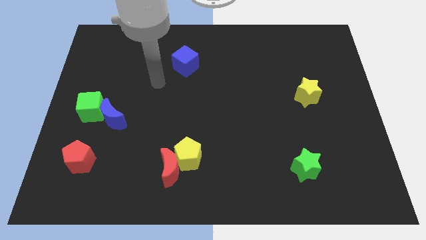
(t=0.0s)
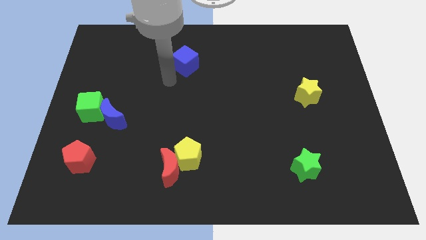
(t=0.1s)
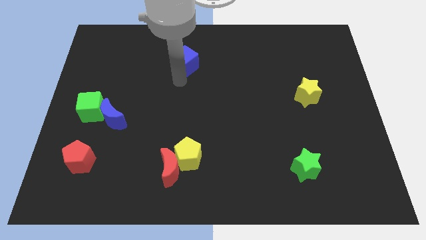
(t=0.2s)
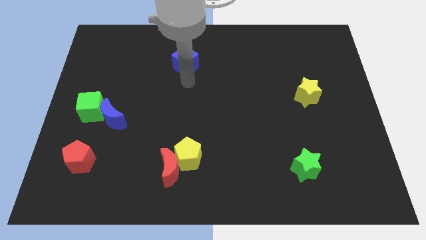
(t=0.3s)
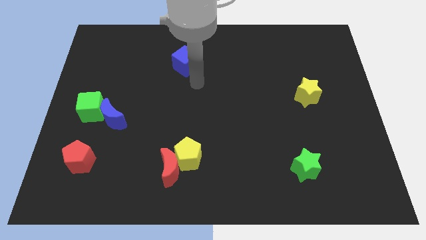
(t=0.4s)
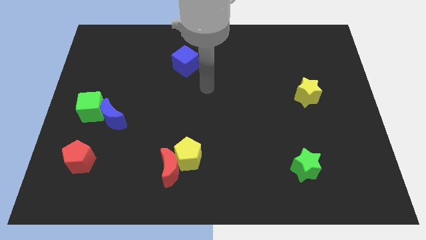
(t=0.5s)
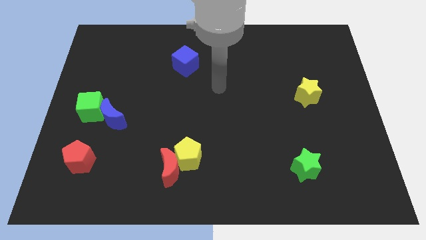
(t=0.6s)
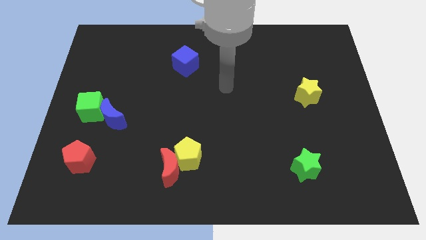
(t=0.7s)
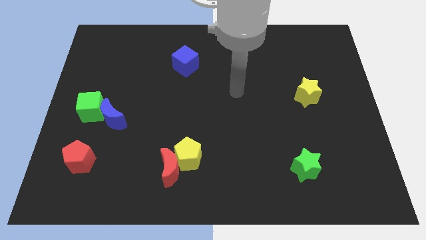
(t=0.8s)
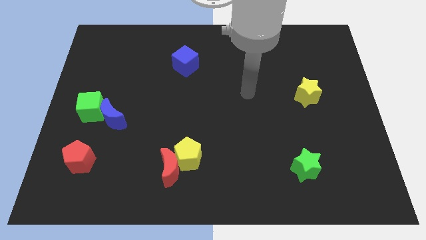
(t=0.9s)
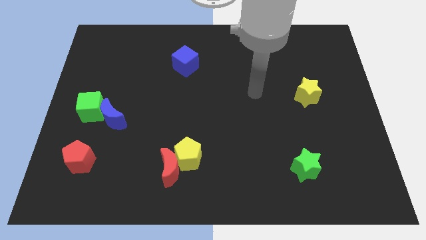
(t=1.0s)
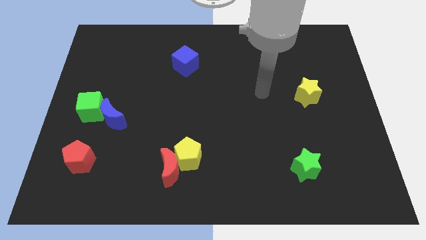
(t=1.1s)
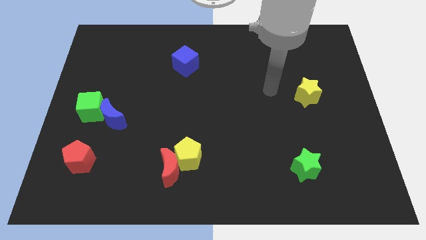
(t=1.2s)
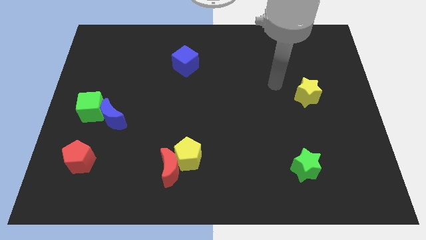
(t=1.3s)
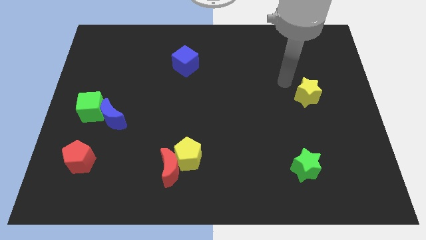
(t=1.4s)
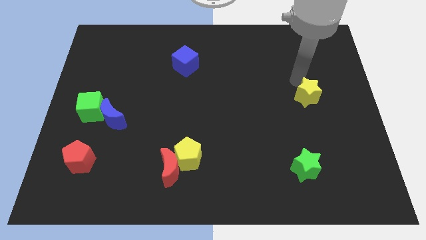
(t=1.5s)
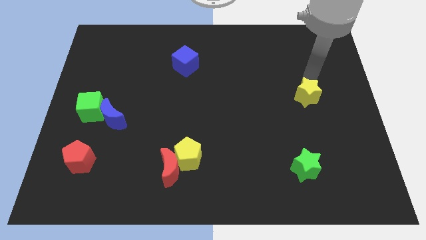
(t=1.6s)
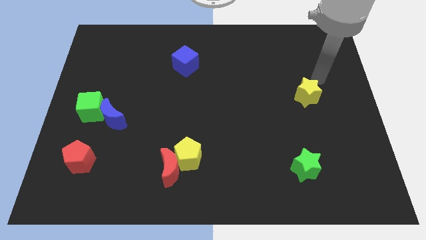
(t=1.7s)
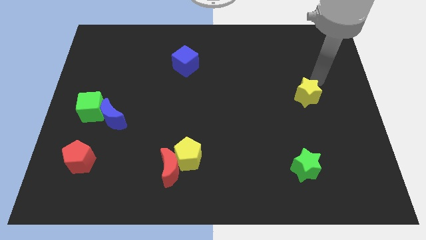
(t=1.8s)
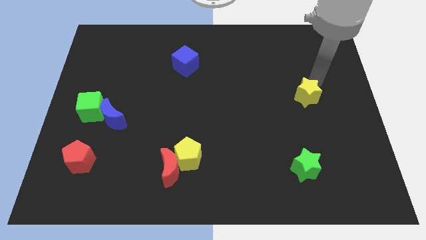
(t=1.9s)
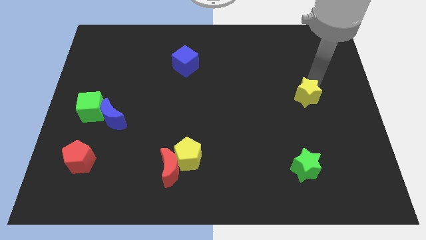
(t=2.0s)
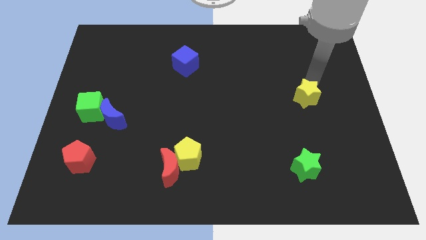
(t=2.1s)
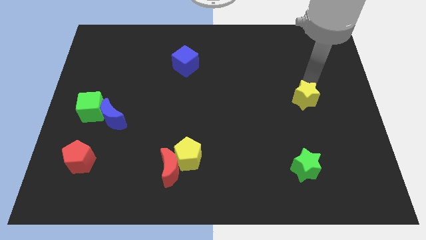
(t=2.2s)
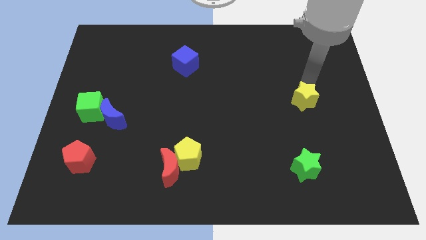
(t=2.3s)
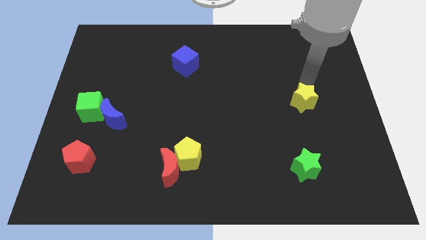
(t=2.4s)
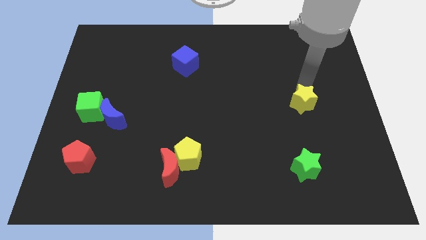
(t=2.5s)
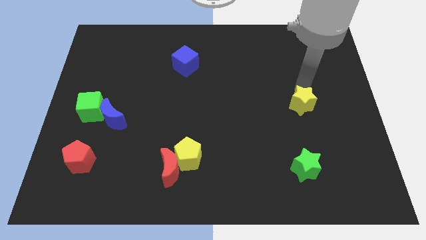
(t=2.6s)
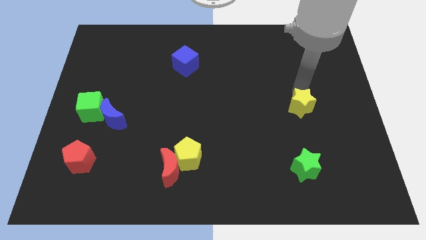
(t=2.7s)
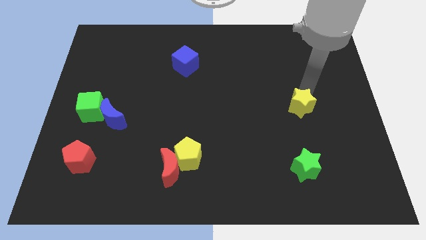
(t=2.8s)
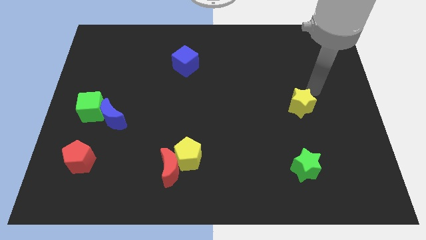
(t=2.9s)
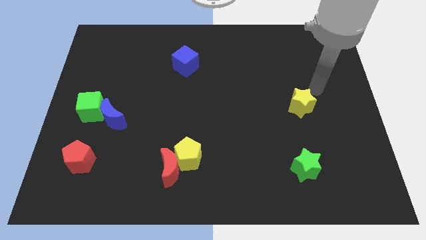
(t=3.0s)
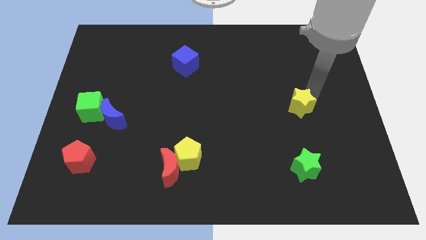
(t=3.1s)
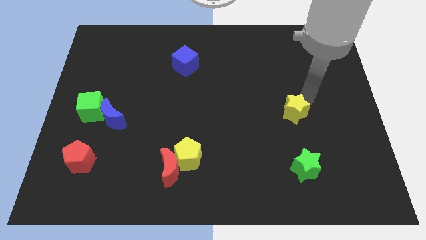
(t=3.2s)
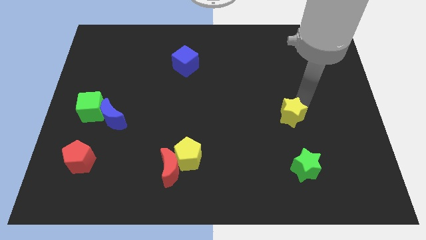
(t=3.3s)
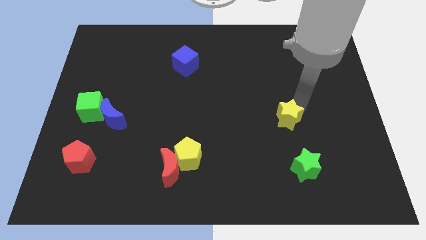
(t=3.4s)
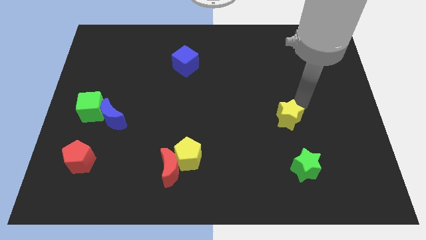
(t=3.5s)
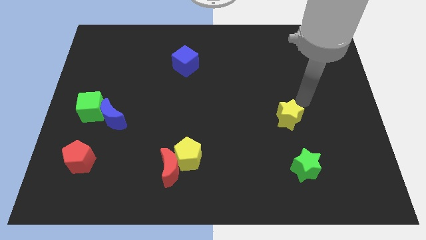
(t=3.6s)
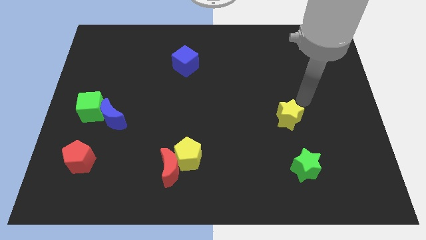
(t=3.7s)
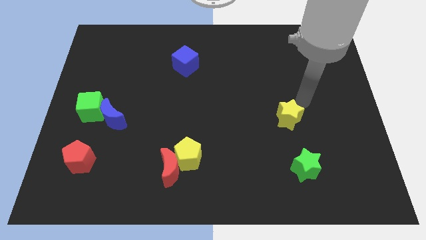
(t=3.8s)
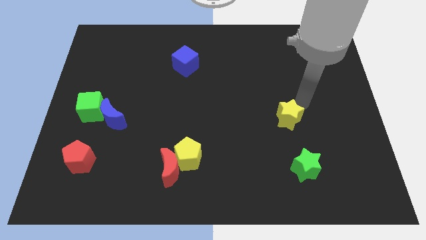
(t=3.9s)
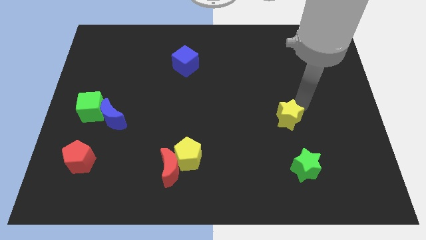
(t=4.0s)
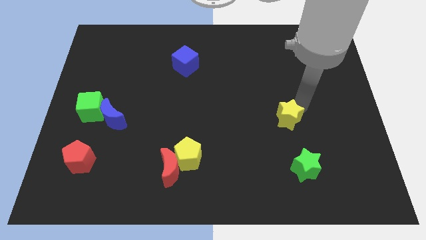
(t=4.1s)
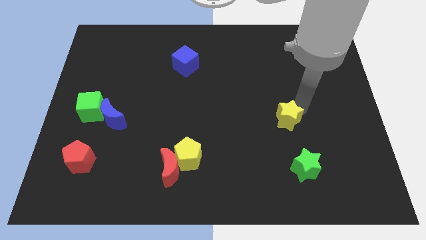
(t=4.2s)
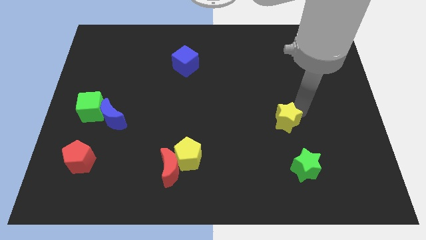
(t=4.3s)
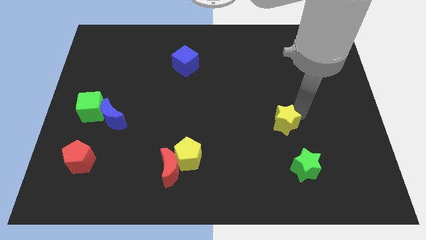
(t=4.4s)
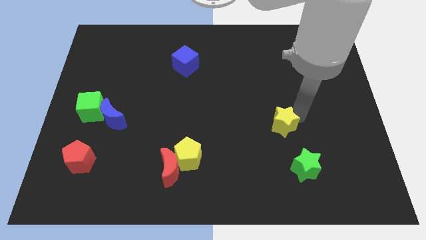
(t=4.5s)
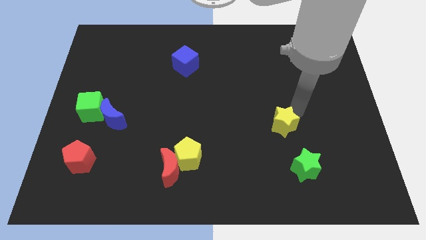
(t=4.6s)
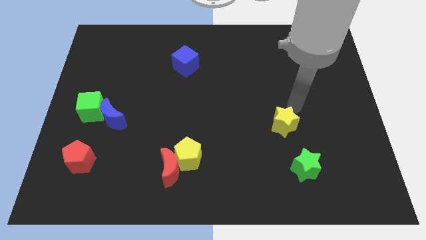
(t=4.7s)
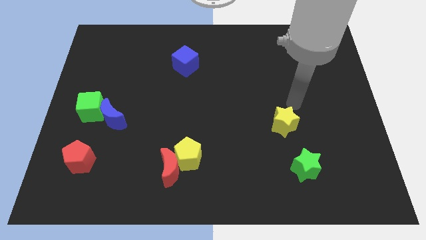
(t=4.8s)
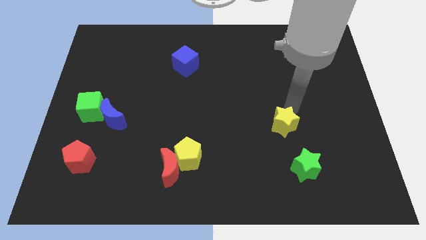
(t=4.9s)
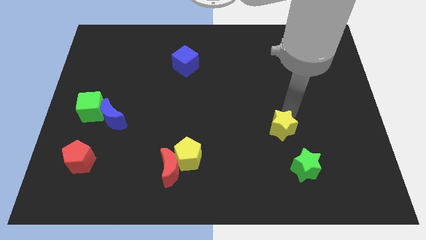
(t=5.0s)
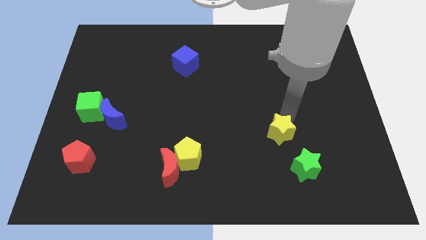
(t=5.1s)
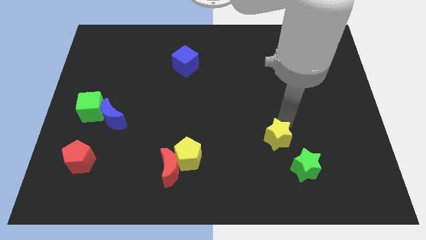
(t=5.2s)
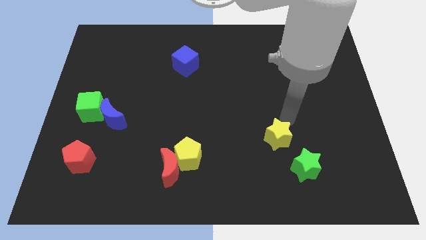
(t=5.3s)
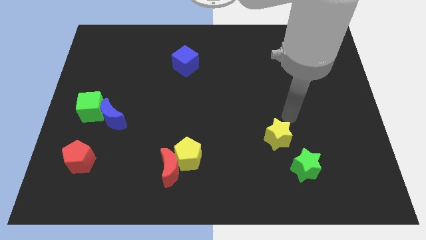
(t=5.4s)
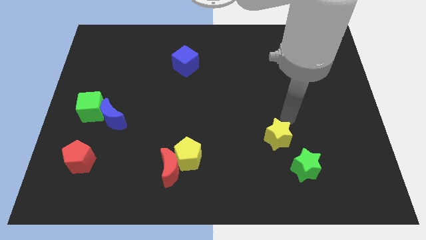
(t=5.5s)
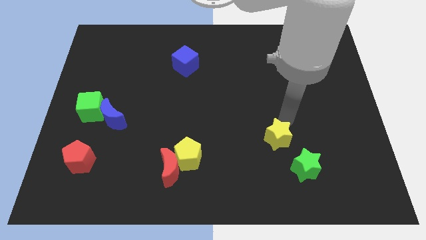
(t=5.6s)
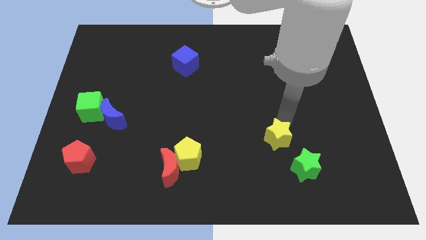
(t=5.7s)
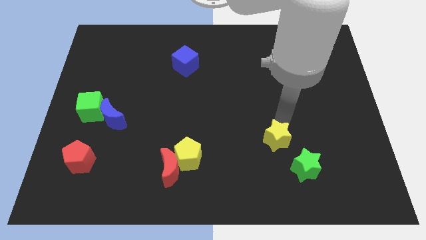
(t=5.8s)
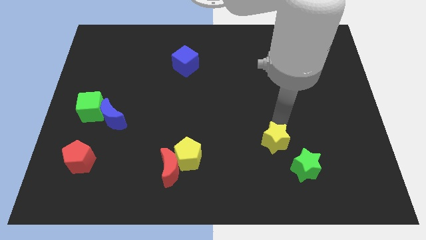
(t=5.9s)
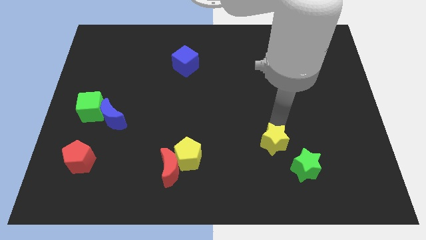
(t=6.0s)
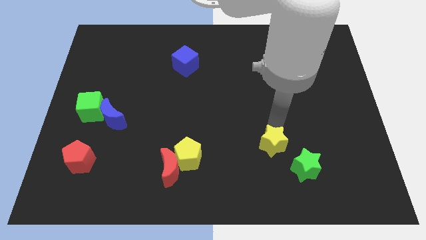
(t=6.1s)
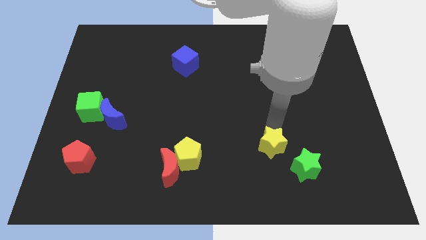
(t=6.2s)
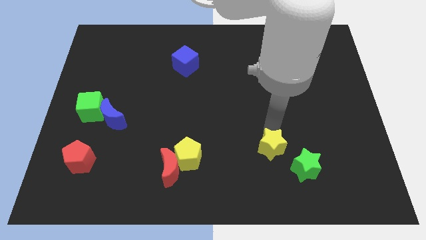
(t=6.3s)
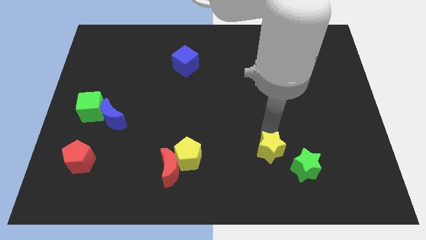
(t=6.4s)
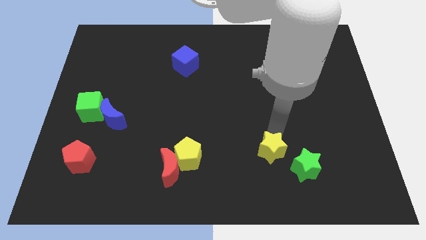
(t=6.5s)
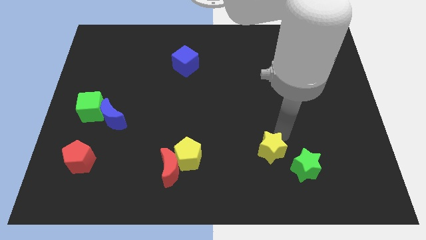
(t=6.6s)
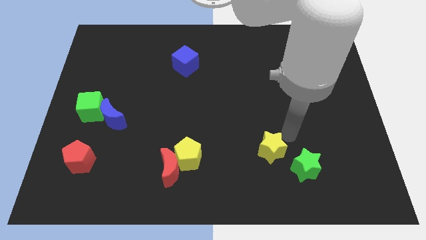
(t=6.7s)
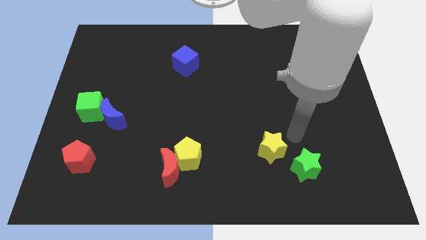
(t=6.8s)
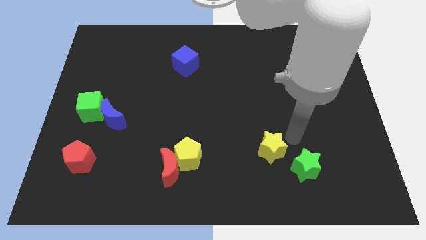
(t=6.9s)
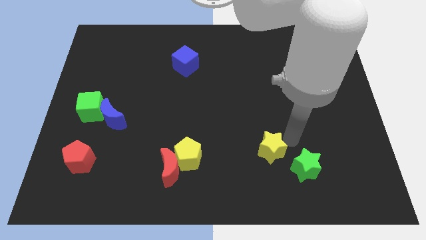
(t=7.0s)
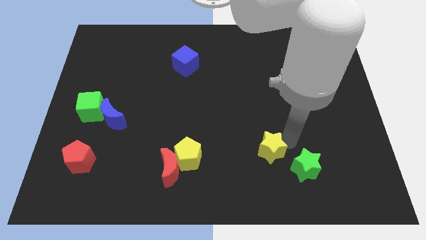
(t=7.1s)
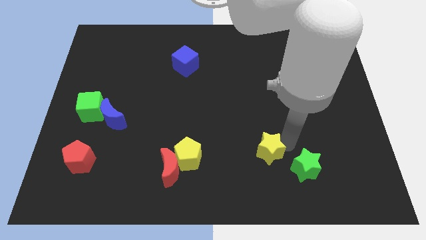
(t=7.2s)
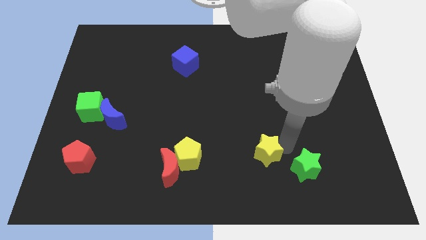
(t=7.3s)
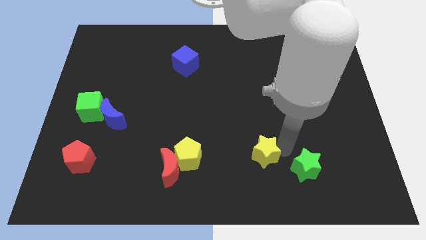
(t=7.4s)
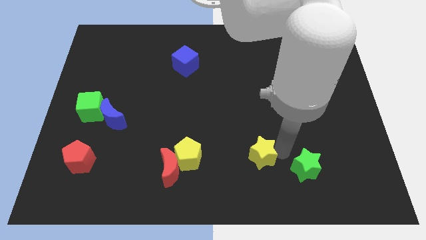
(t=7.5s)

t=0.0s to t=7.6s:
slide the yellow star down and left
